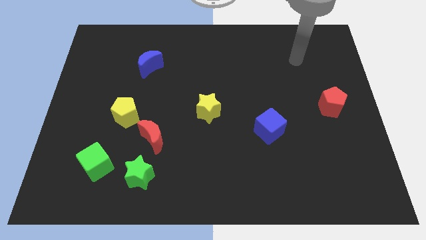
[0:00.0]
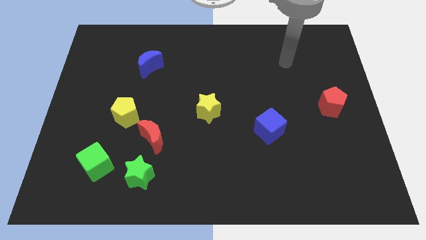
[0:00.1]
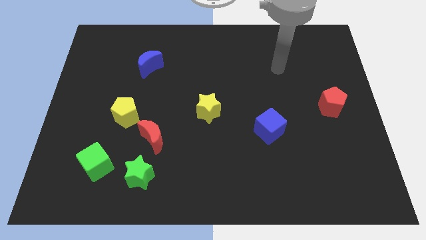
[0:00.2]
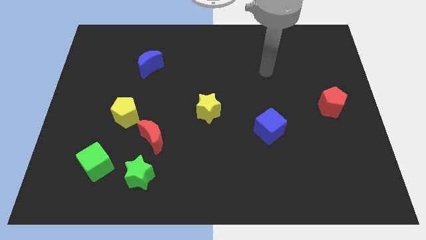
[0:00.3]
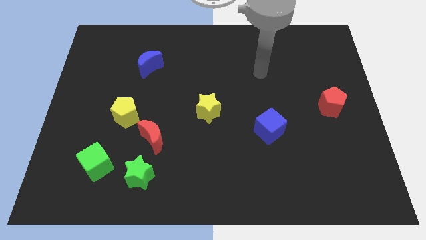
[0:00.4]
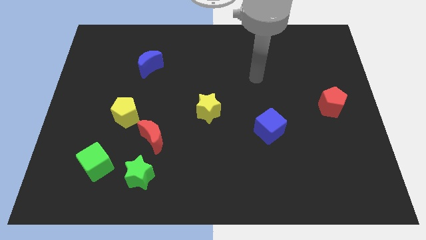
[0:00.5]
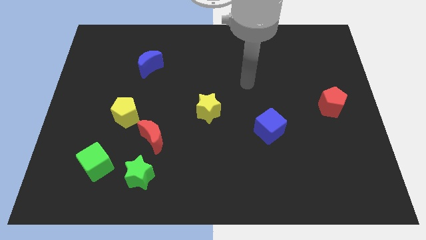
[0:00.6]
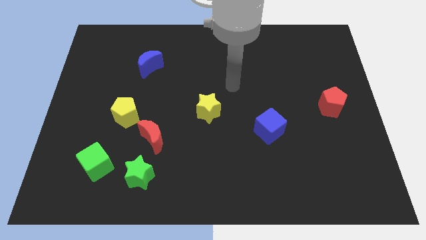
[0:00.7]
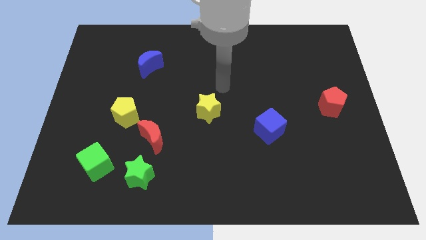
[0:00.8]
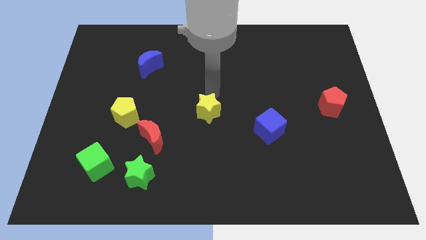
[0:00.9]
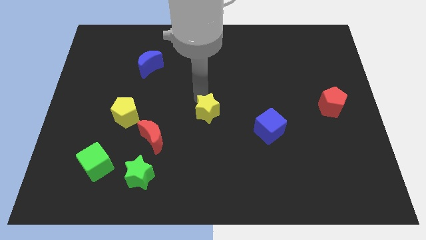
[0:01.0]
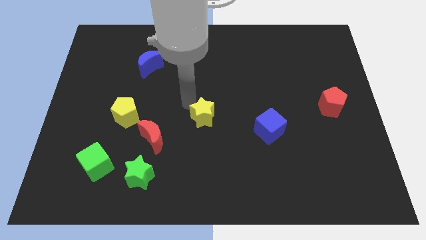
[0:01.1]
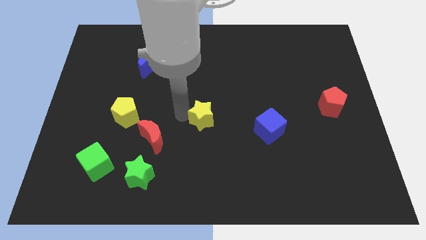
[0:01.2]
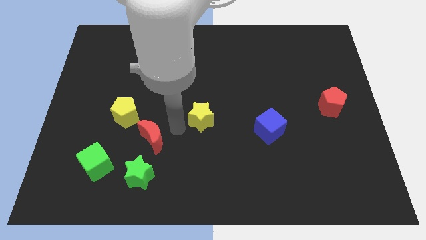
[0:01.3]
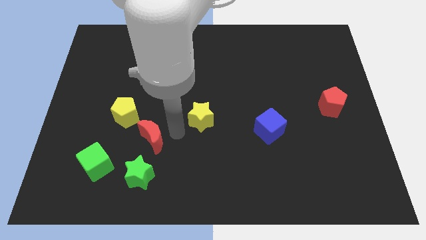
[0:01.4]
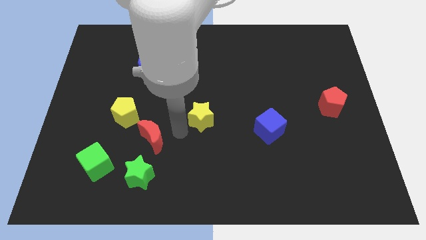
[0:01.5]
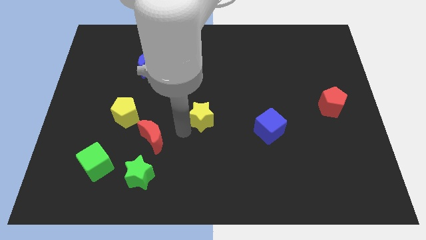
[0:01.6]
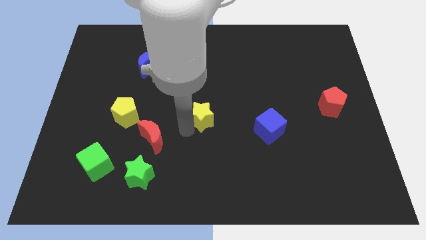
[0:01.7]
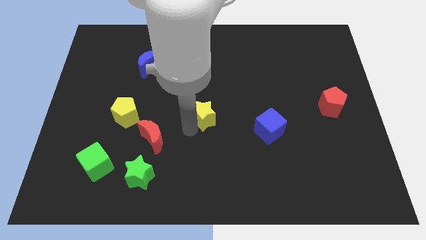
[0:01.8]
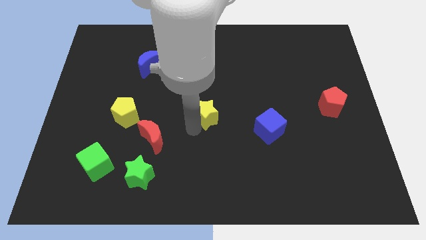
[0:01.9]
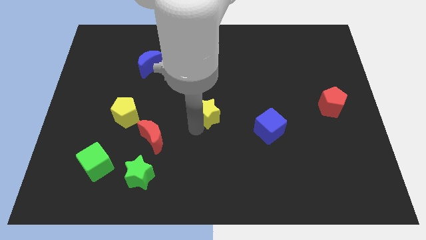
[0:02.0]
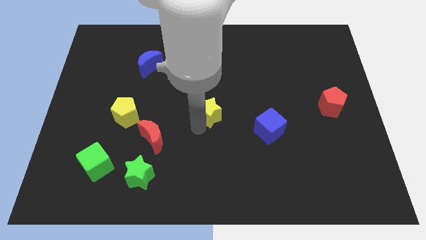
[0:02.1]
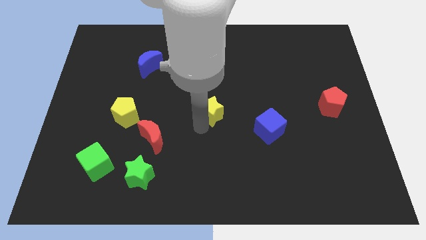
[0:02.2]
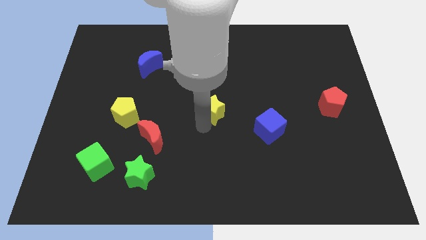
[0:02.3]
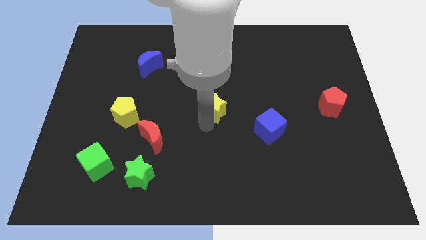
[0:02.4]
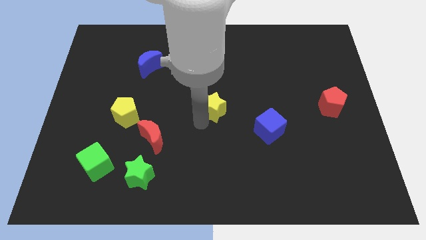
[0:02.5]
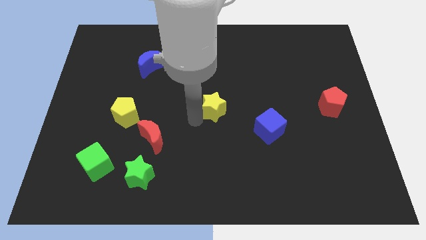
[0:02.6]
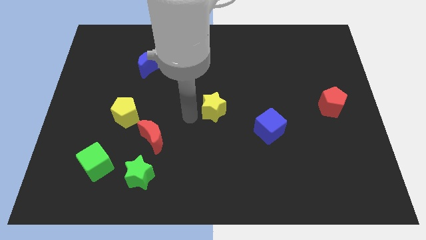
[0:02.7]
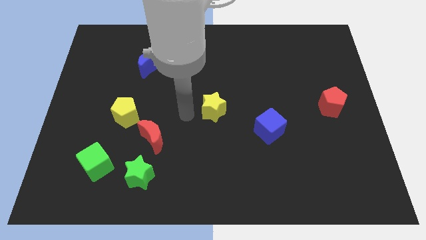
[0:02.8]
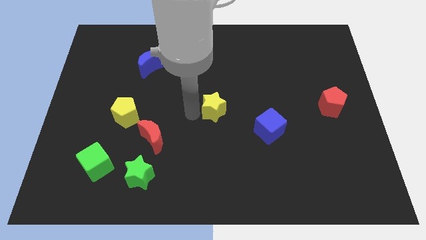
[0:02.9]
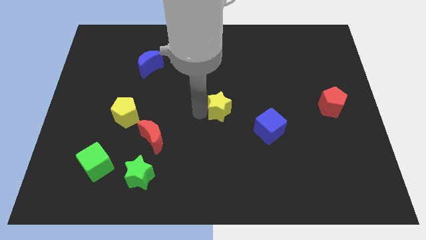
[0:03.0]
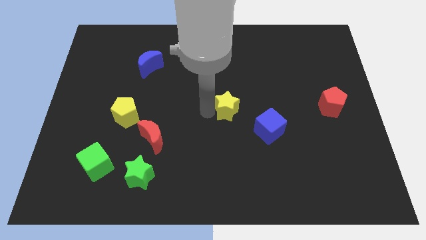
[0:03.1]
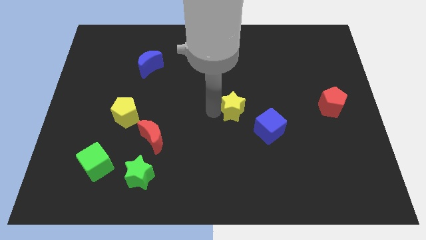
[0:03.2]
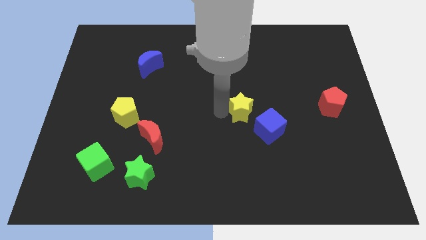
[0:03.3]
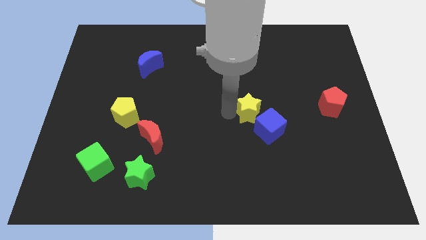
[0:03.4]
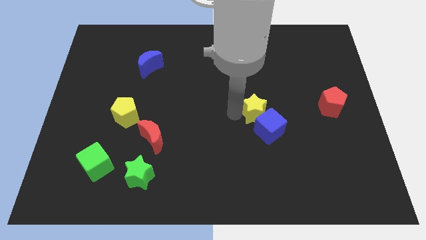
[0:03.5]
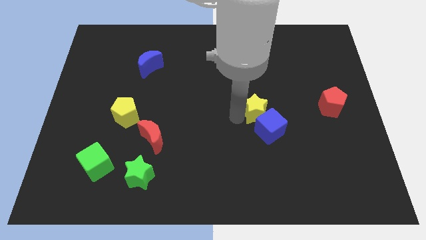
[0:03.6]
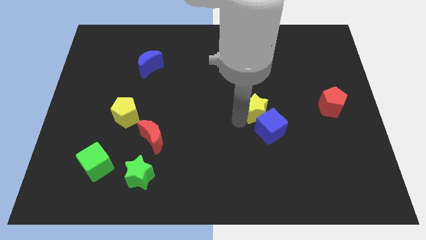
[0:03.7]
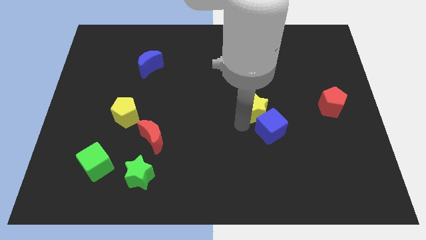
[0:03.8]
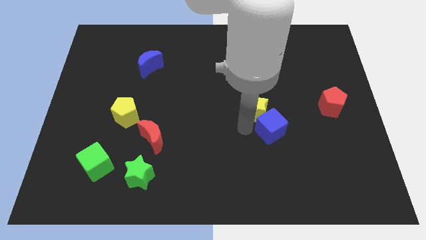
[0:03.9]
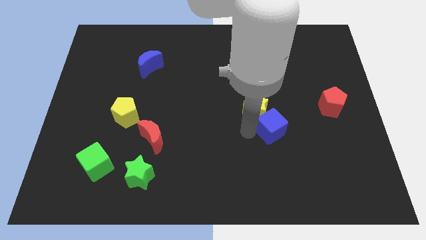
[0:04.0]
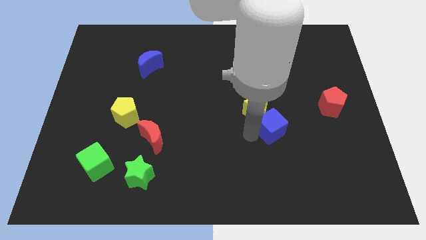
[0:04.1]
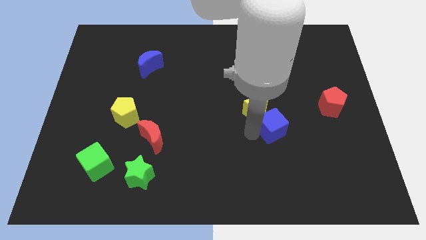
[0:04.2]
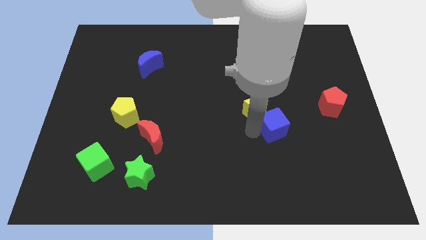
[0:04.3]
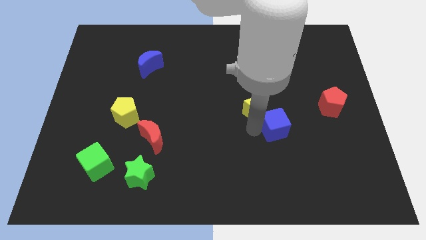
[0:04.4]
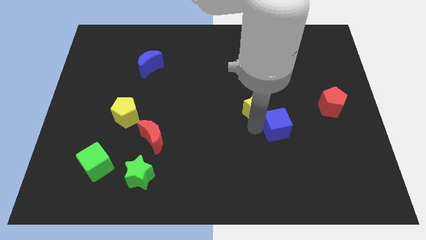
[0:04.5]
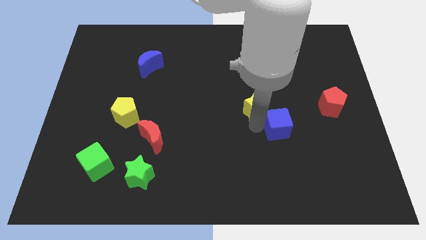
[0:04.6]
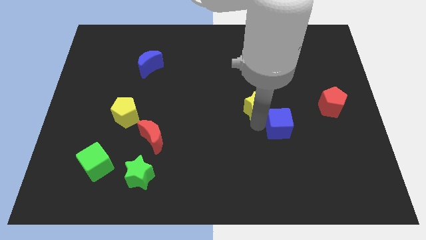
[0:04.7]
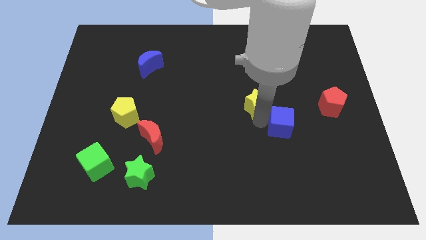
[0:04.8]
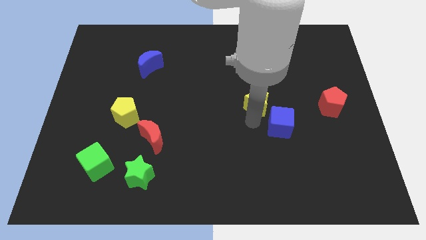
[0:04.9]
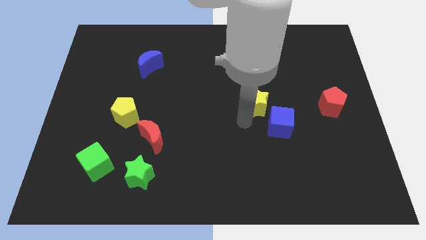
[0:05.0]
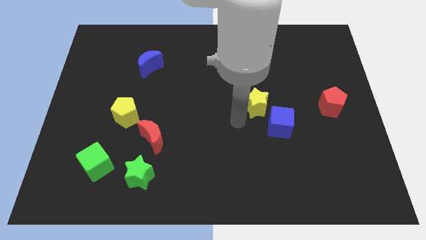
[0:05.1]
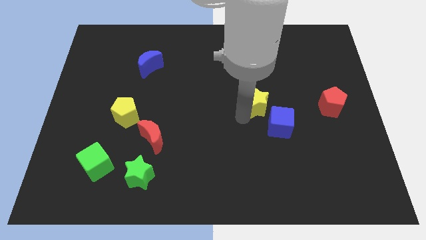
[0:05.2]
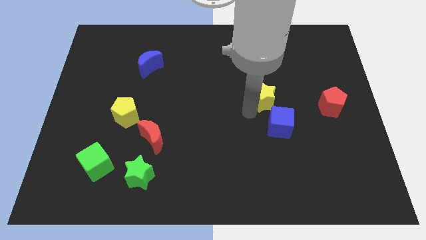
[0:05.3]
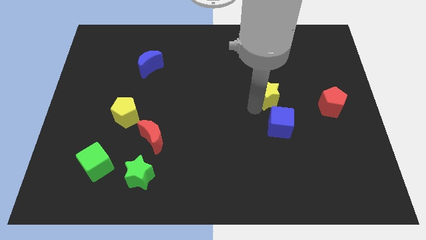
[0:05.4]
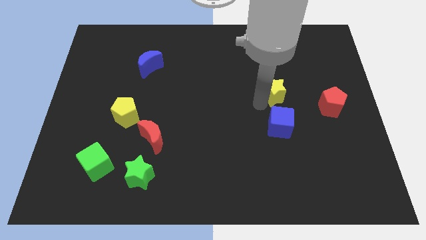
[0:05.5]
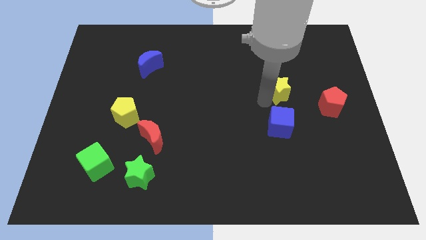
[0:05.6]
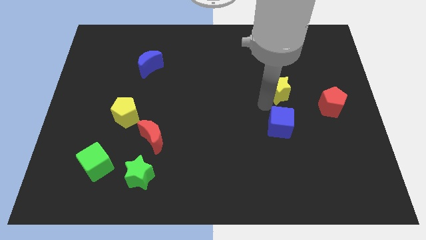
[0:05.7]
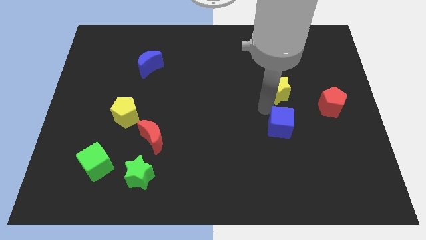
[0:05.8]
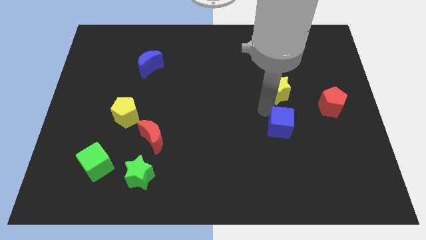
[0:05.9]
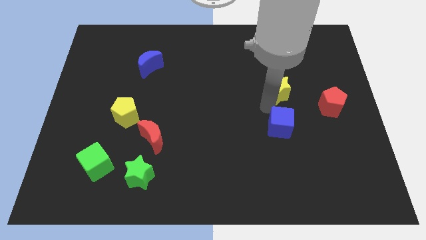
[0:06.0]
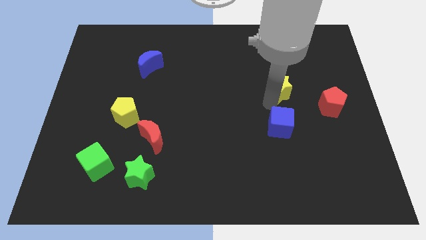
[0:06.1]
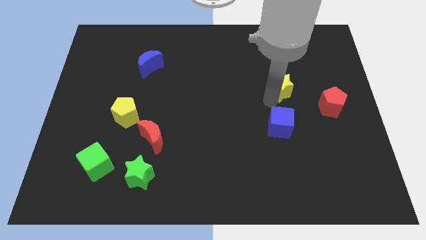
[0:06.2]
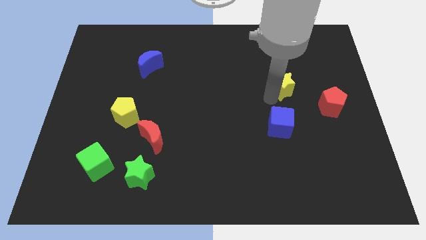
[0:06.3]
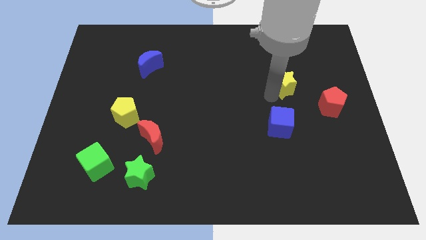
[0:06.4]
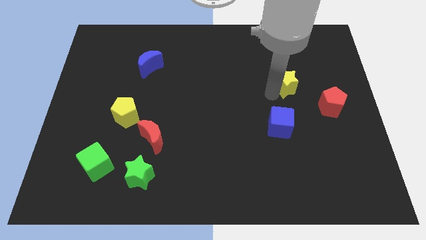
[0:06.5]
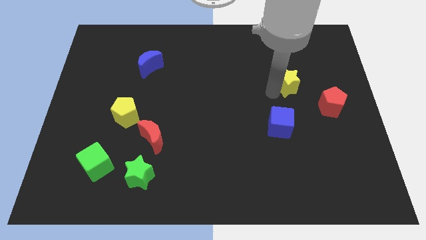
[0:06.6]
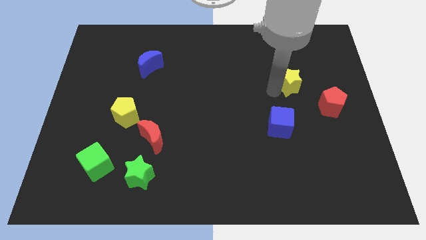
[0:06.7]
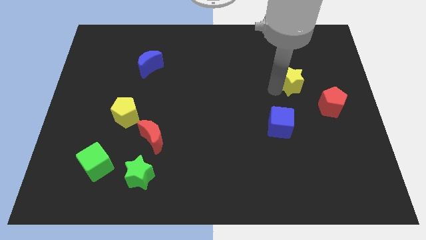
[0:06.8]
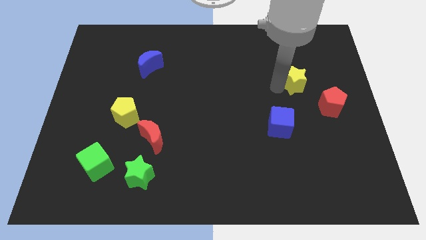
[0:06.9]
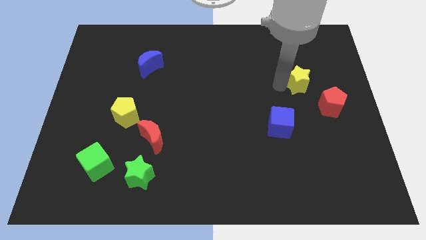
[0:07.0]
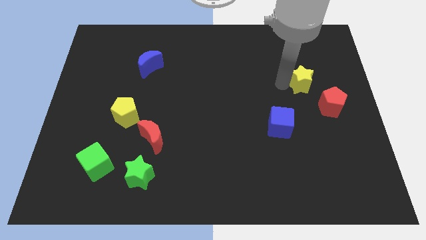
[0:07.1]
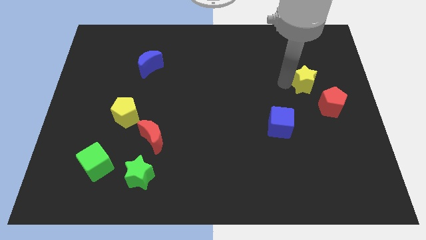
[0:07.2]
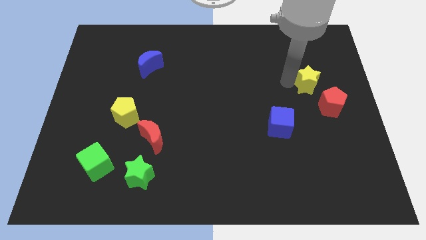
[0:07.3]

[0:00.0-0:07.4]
push the yellow star to the top side of the red pentagon
